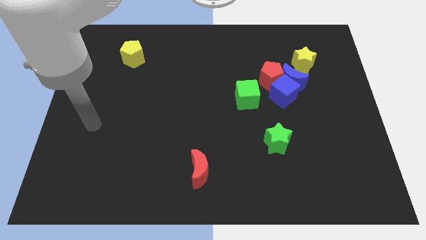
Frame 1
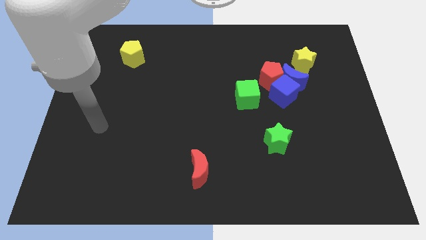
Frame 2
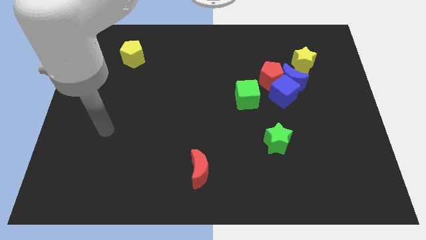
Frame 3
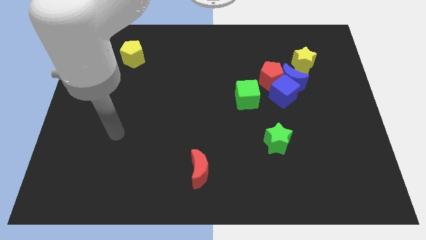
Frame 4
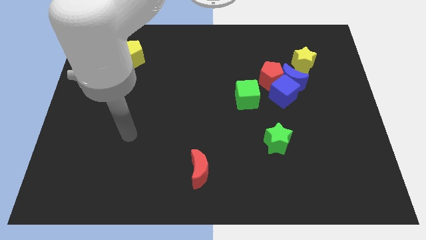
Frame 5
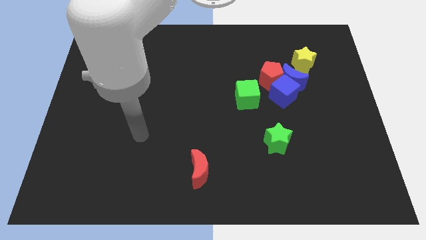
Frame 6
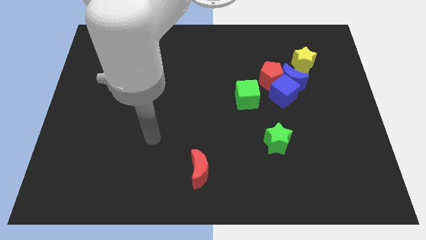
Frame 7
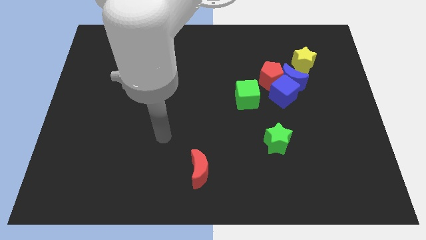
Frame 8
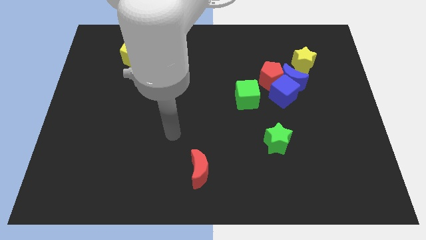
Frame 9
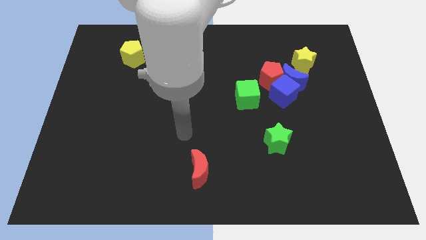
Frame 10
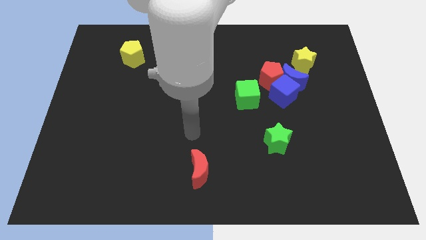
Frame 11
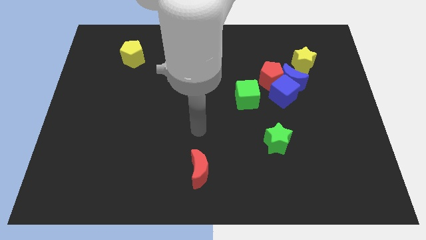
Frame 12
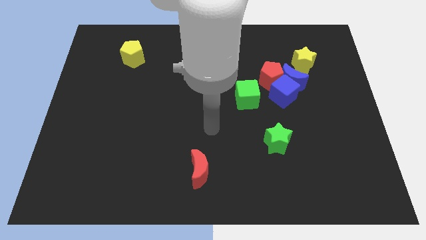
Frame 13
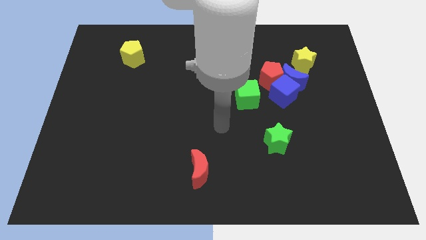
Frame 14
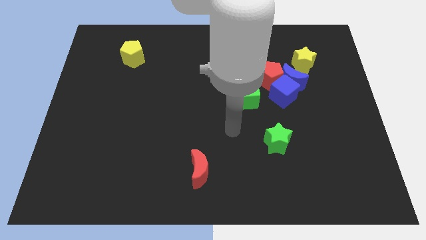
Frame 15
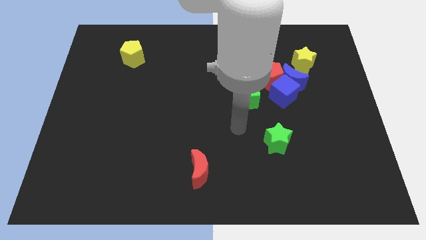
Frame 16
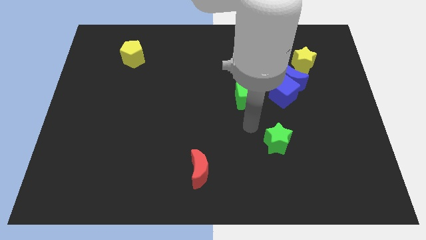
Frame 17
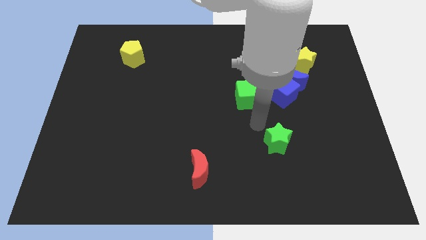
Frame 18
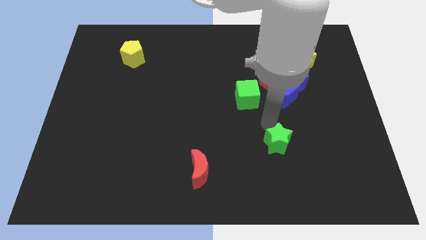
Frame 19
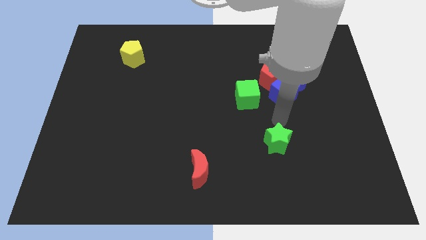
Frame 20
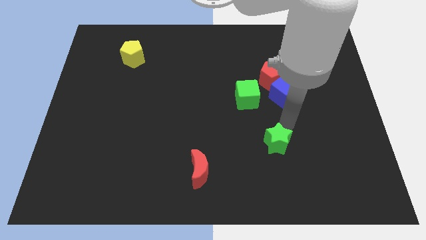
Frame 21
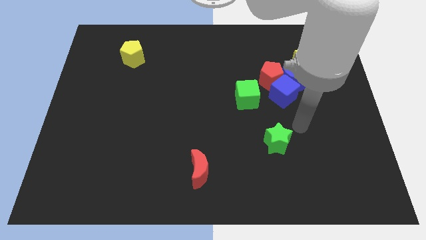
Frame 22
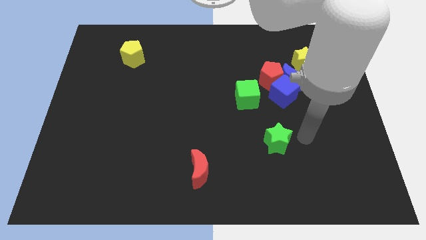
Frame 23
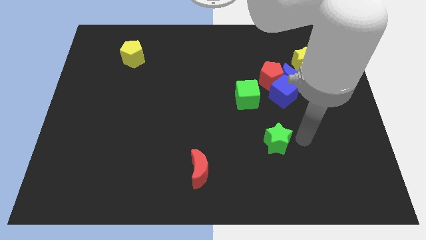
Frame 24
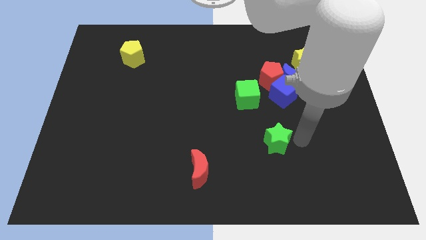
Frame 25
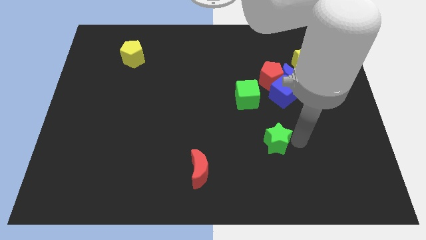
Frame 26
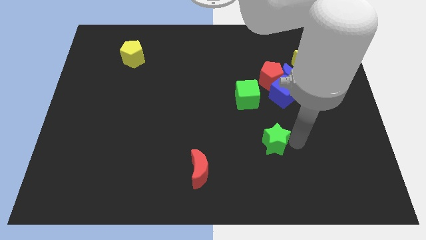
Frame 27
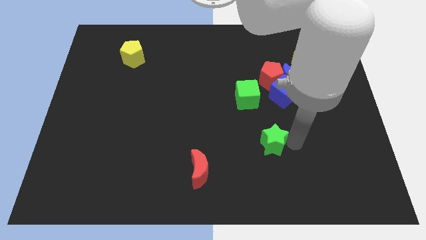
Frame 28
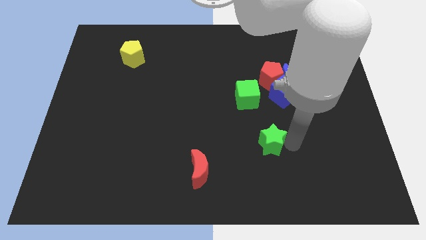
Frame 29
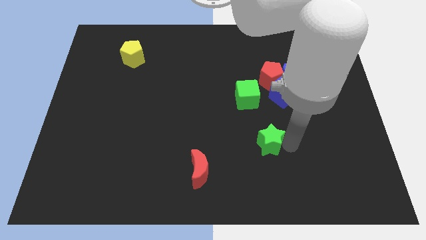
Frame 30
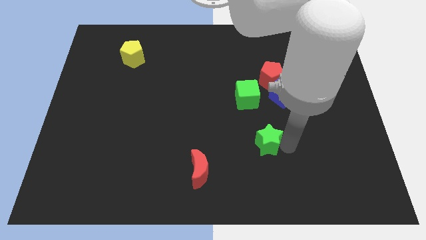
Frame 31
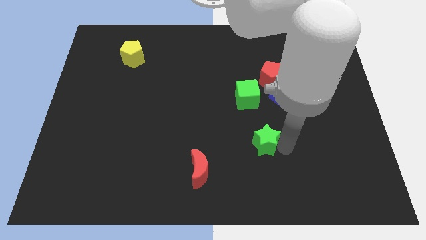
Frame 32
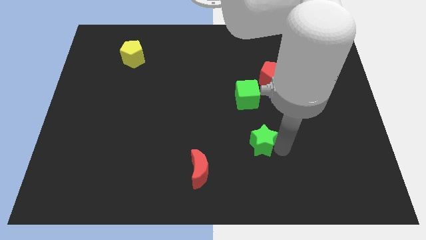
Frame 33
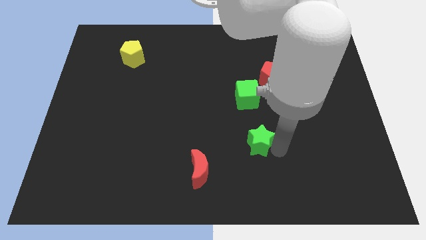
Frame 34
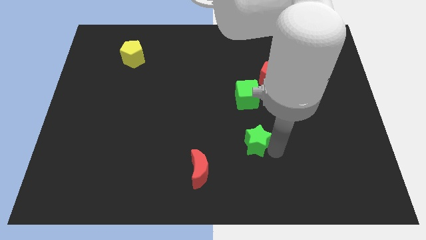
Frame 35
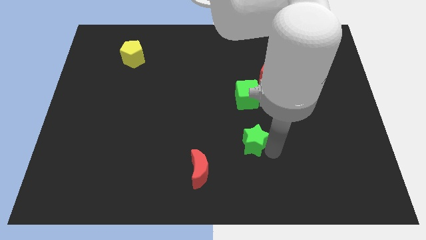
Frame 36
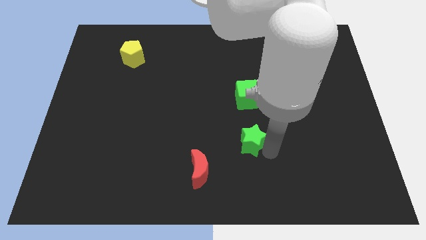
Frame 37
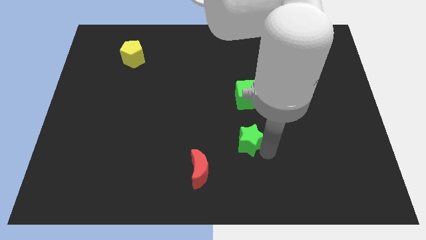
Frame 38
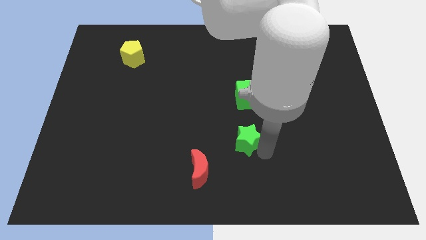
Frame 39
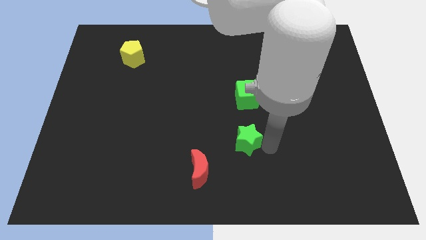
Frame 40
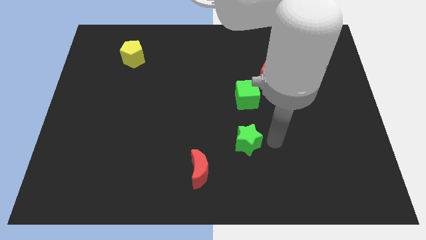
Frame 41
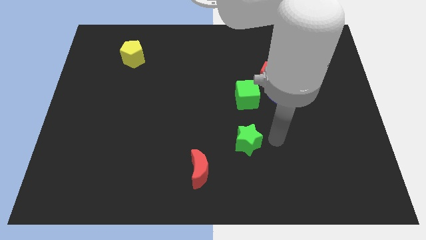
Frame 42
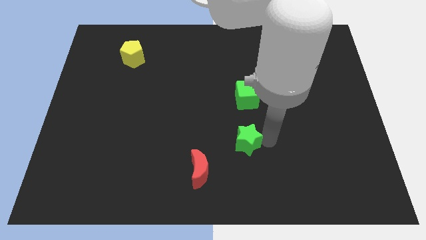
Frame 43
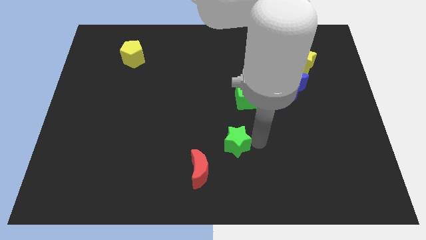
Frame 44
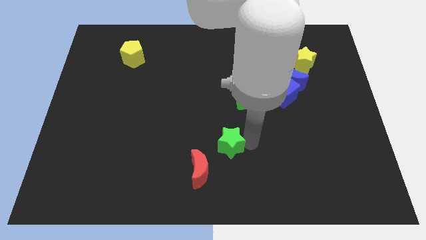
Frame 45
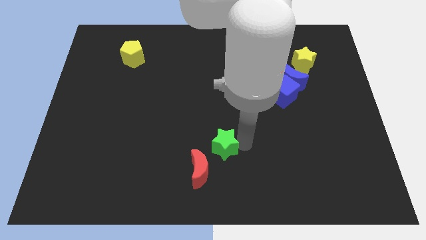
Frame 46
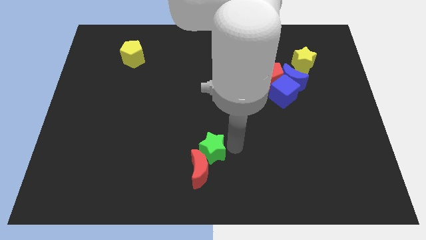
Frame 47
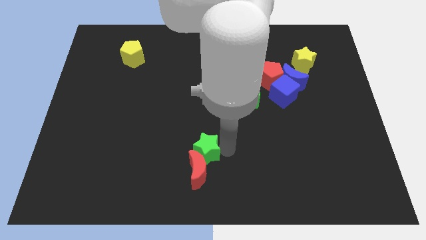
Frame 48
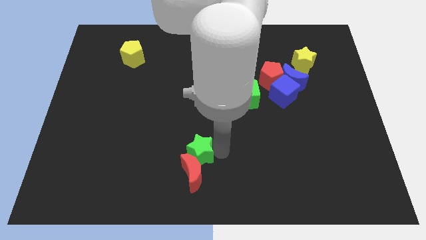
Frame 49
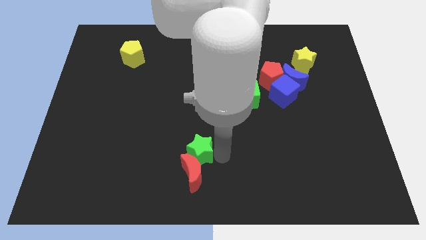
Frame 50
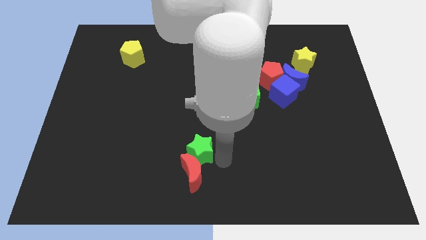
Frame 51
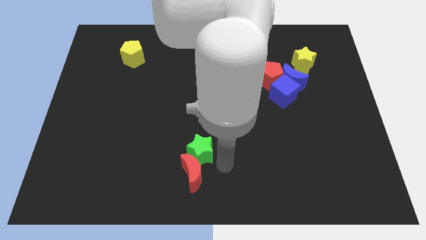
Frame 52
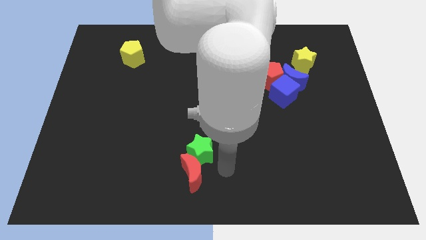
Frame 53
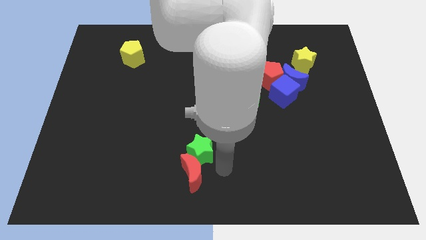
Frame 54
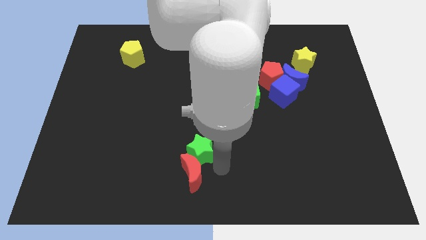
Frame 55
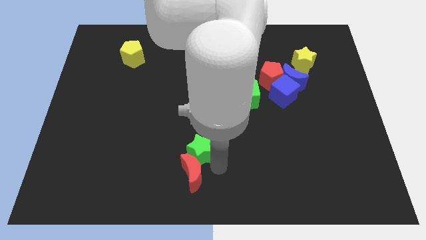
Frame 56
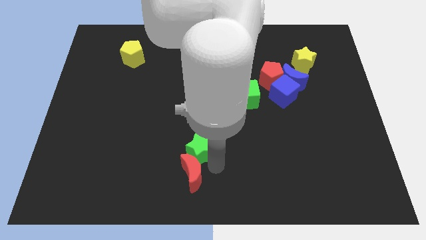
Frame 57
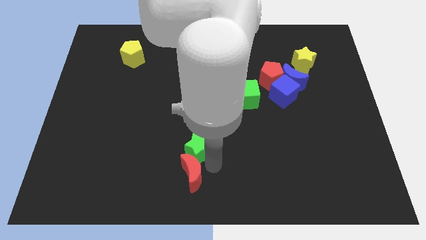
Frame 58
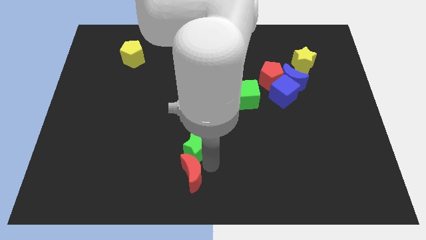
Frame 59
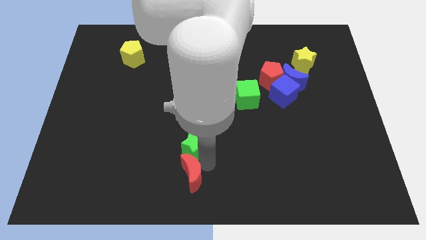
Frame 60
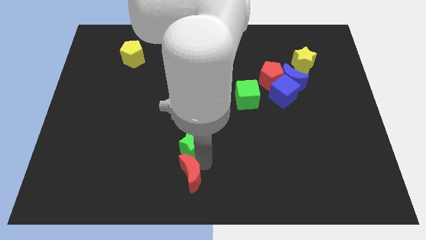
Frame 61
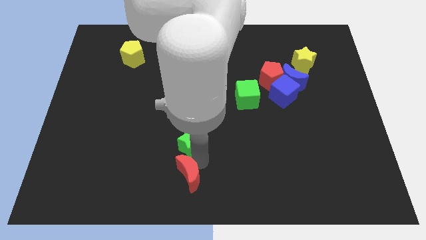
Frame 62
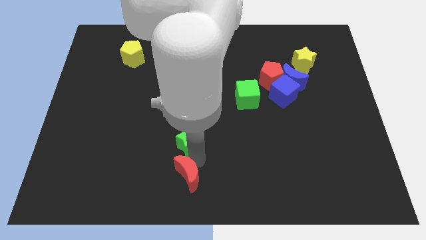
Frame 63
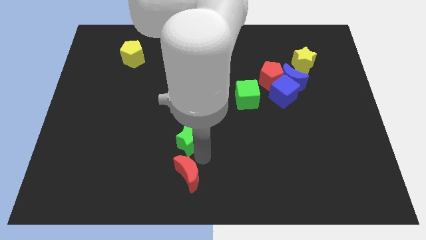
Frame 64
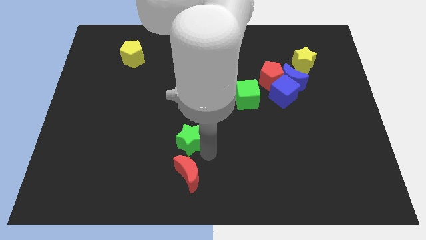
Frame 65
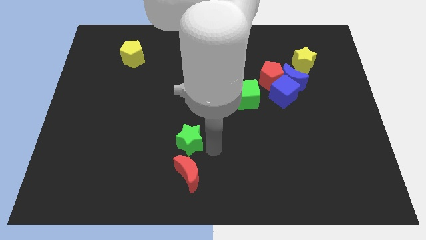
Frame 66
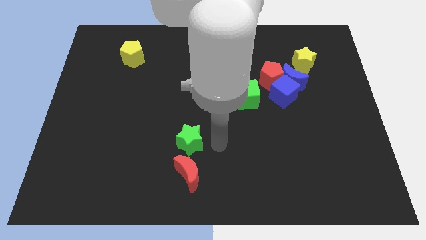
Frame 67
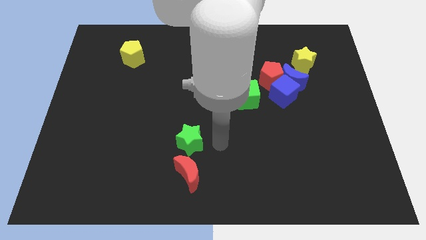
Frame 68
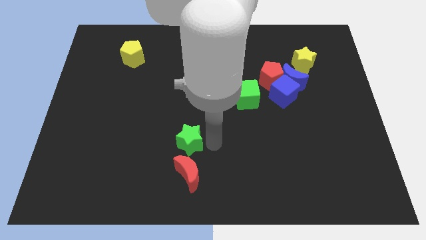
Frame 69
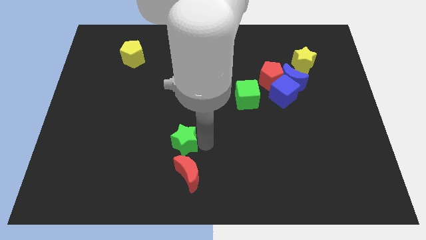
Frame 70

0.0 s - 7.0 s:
move the green star to the left

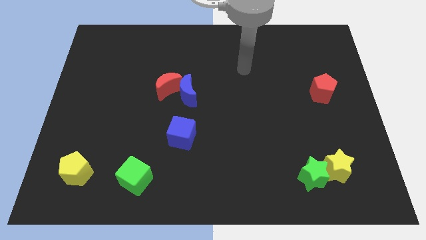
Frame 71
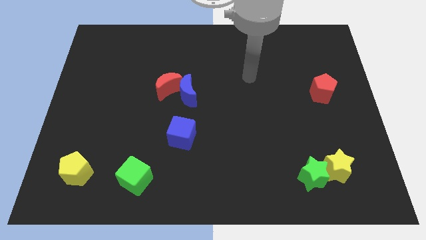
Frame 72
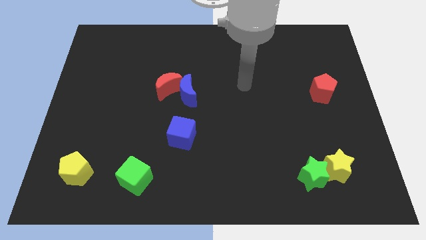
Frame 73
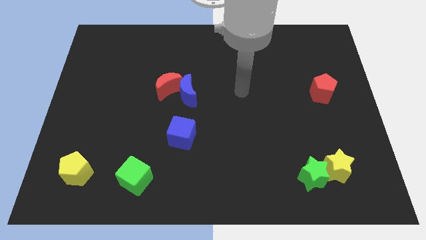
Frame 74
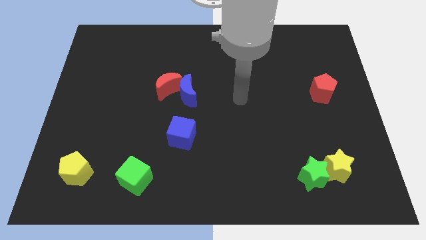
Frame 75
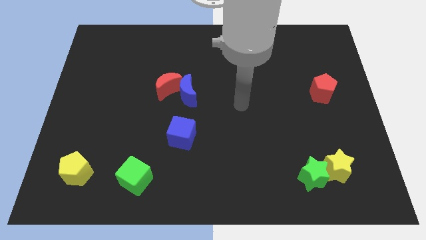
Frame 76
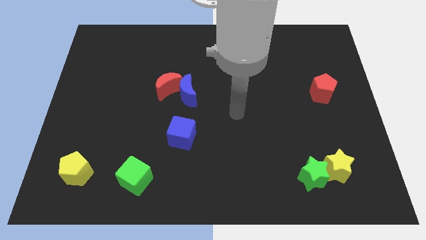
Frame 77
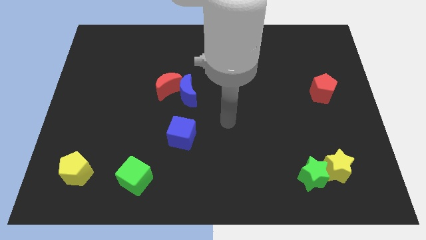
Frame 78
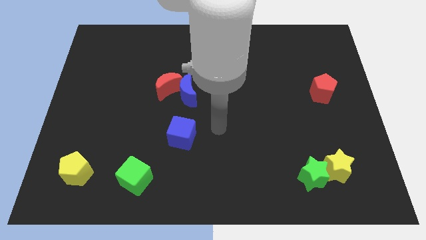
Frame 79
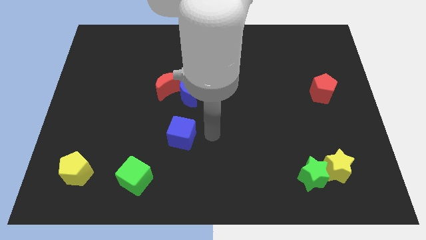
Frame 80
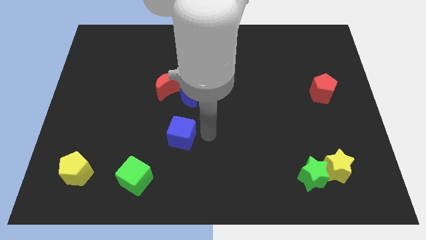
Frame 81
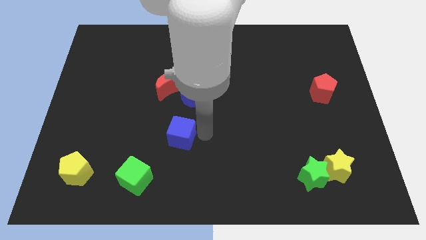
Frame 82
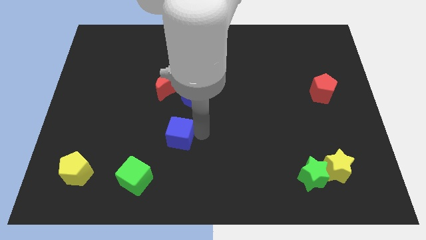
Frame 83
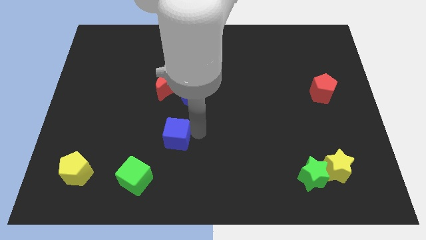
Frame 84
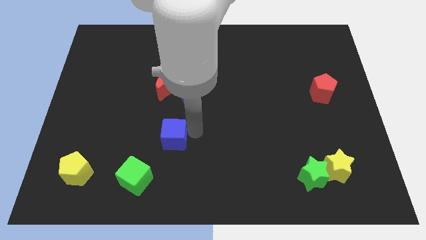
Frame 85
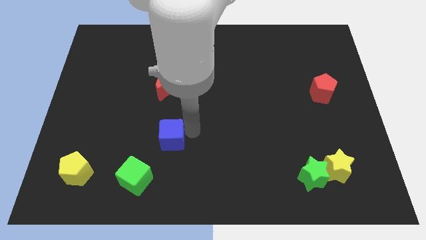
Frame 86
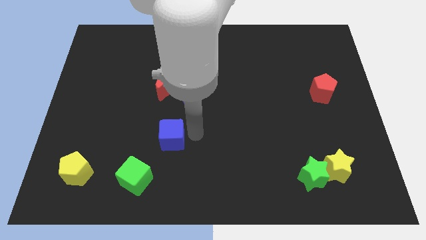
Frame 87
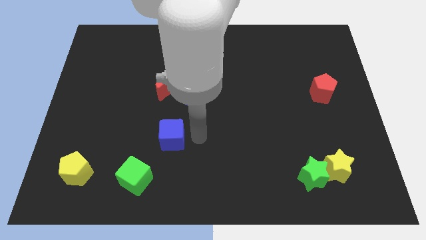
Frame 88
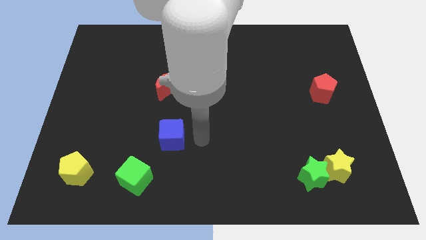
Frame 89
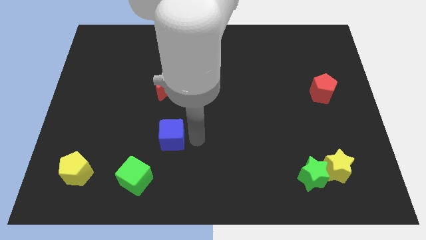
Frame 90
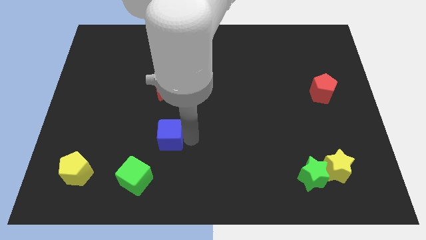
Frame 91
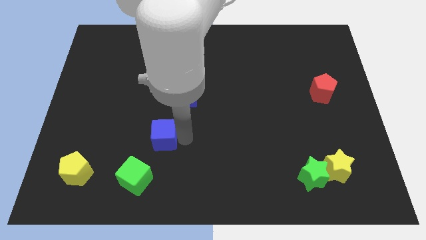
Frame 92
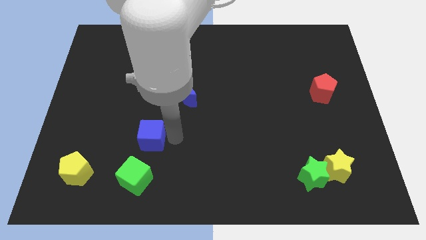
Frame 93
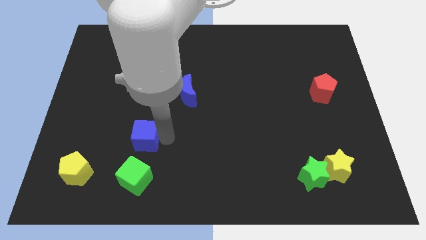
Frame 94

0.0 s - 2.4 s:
slide the blue cube a little bit left
